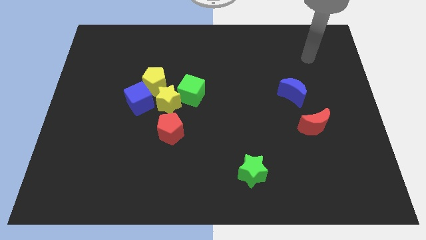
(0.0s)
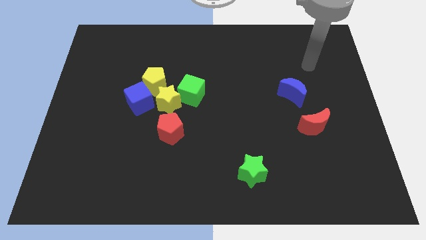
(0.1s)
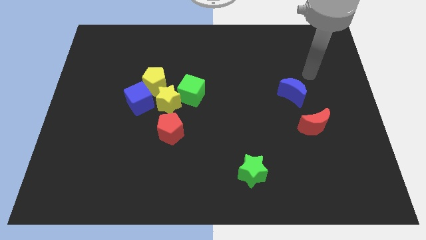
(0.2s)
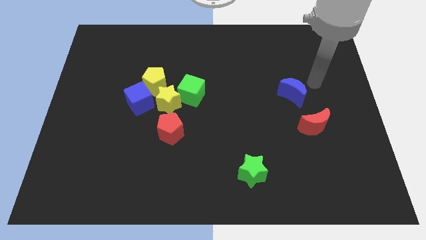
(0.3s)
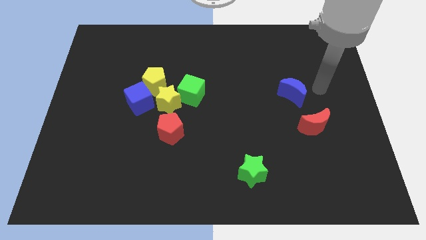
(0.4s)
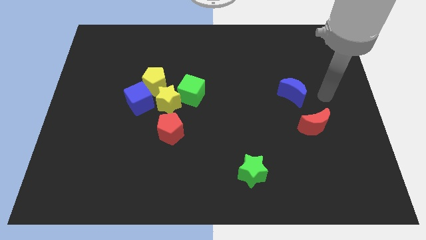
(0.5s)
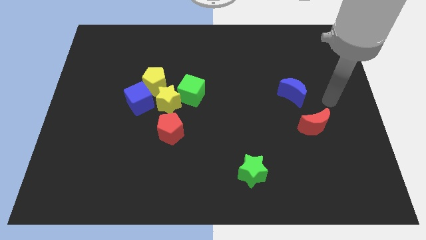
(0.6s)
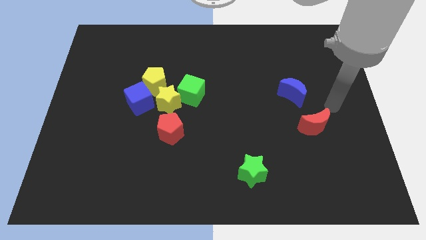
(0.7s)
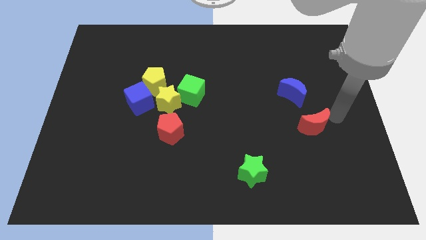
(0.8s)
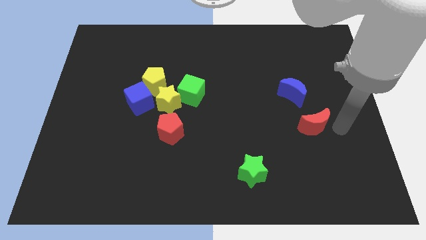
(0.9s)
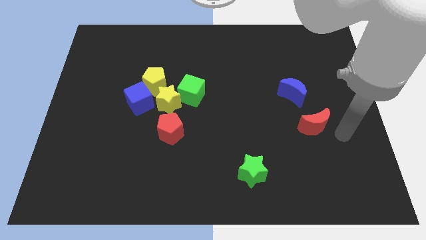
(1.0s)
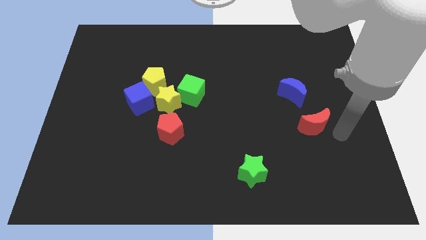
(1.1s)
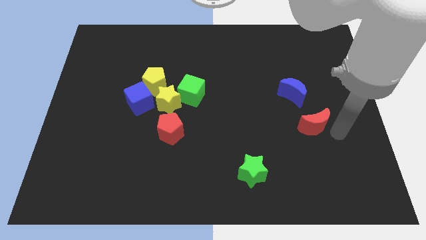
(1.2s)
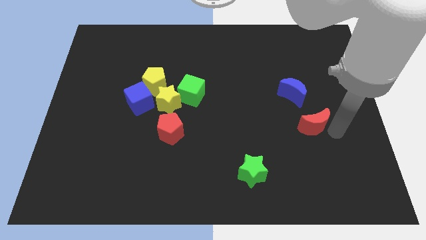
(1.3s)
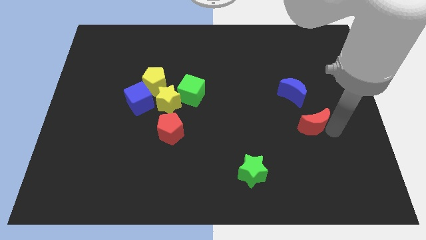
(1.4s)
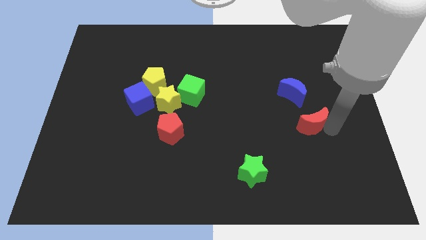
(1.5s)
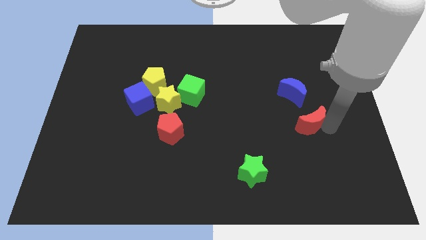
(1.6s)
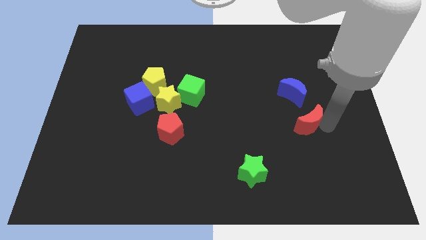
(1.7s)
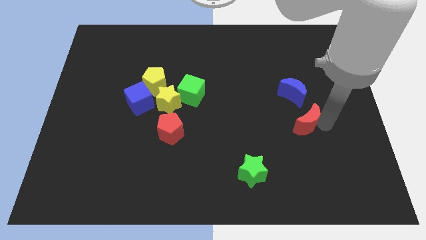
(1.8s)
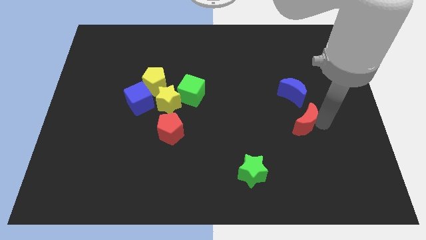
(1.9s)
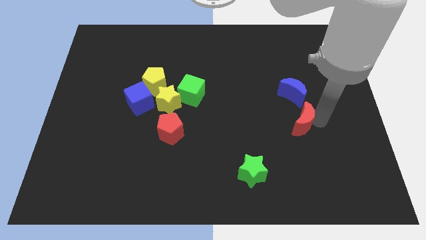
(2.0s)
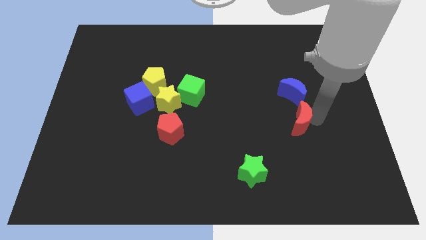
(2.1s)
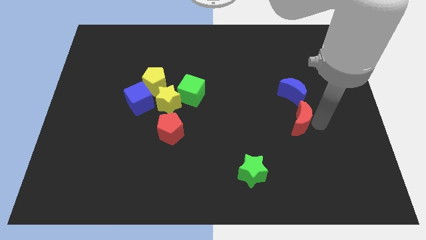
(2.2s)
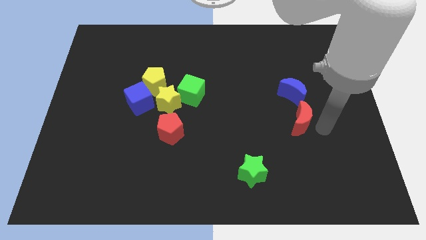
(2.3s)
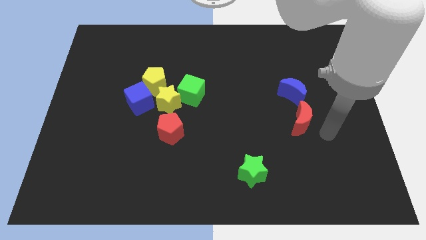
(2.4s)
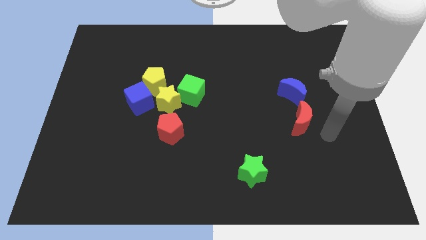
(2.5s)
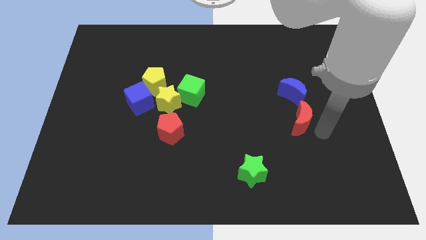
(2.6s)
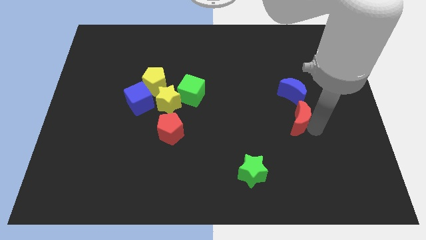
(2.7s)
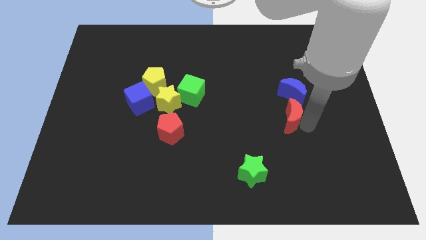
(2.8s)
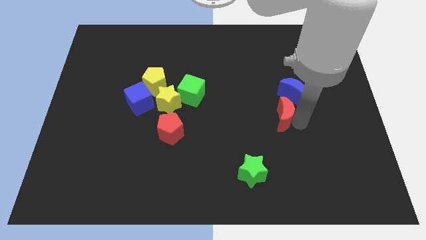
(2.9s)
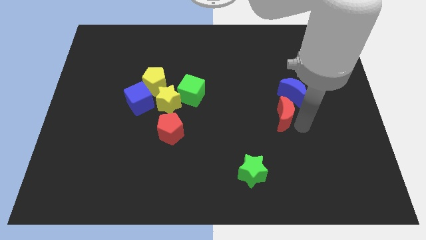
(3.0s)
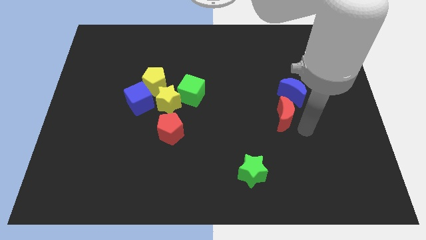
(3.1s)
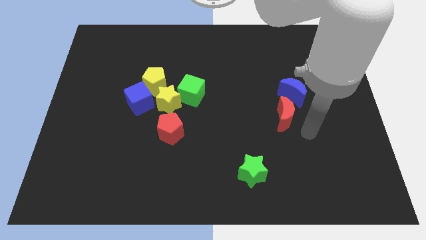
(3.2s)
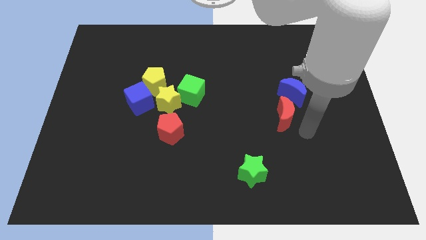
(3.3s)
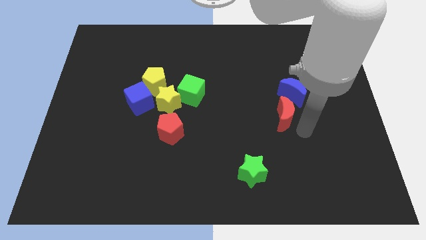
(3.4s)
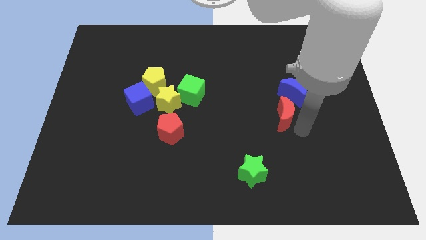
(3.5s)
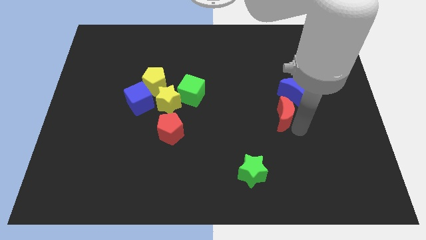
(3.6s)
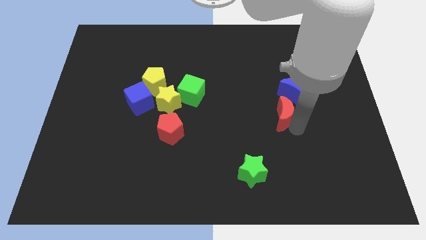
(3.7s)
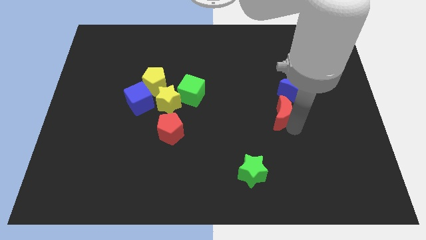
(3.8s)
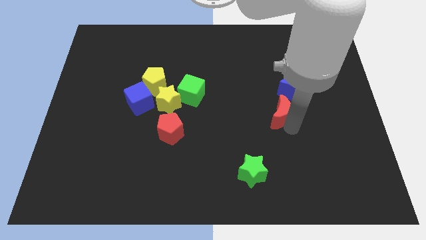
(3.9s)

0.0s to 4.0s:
slightly push the red moon upwards and then left

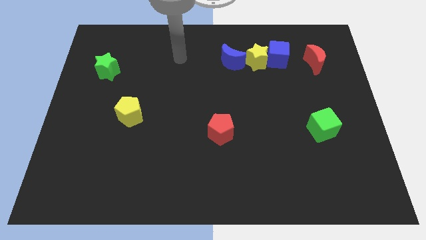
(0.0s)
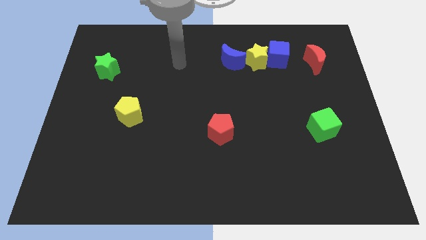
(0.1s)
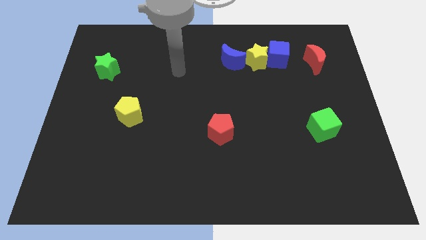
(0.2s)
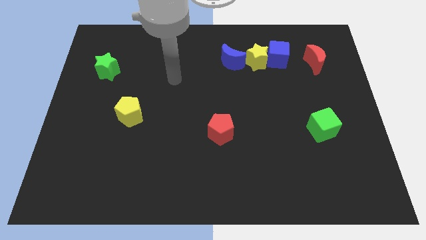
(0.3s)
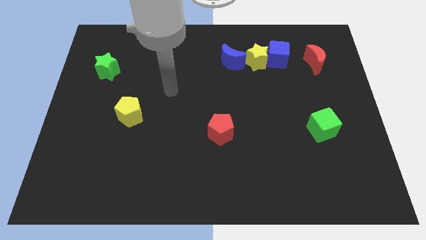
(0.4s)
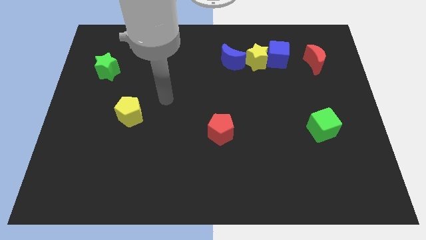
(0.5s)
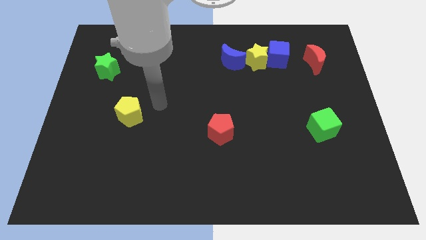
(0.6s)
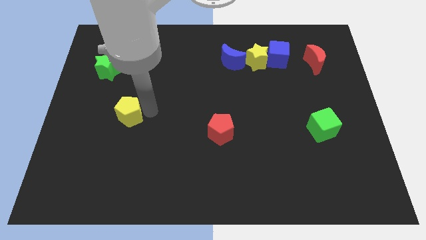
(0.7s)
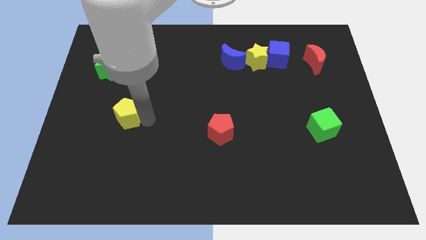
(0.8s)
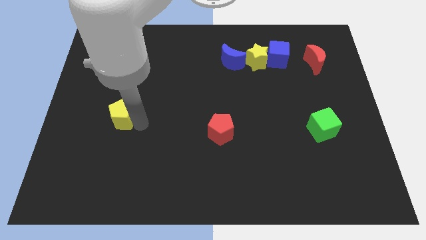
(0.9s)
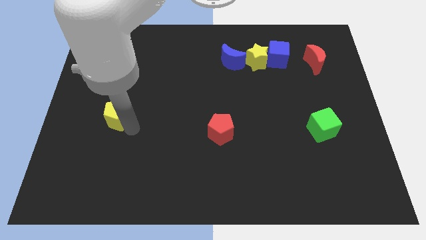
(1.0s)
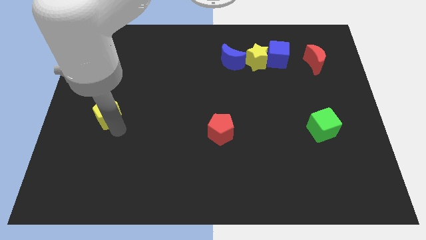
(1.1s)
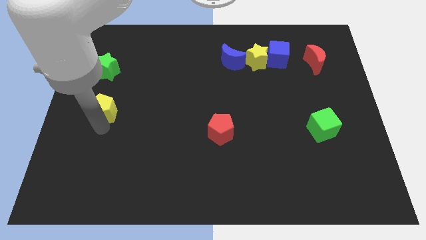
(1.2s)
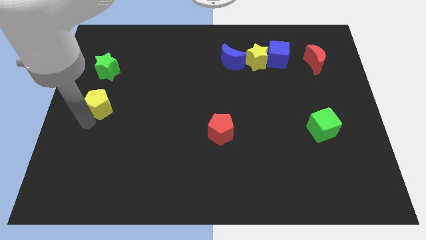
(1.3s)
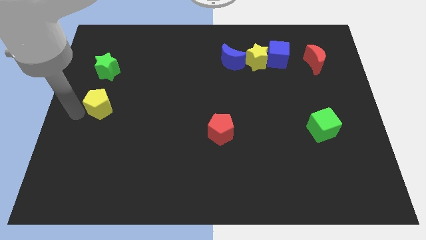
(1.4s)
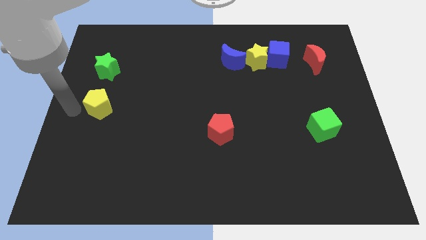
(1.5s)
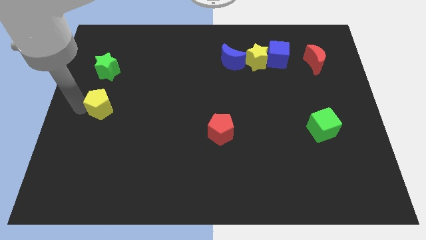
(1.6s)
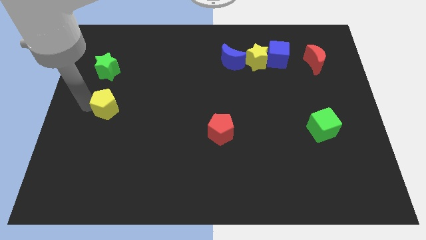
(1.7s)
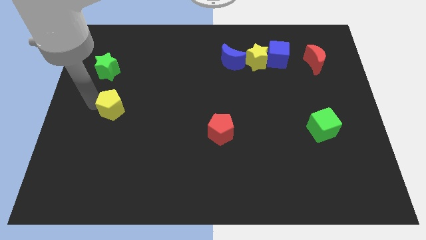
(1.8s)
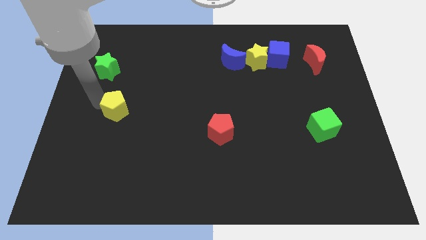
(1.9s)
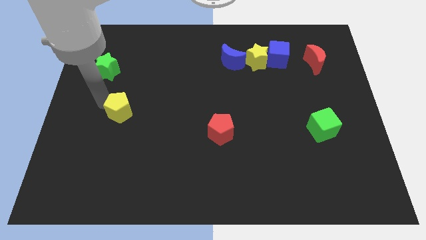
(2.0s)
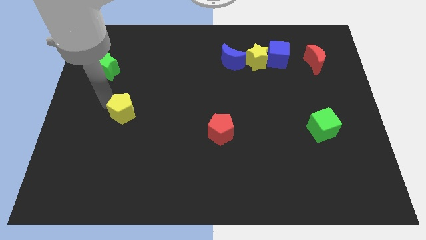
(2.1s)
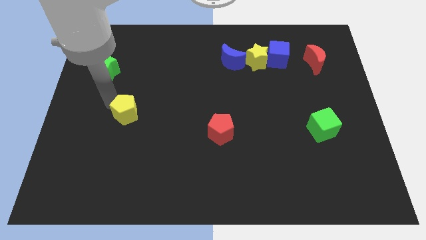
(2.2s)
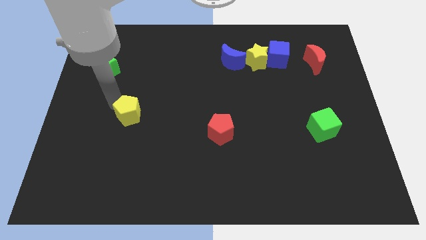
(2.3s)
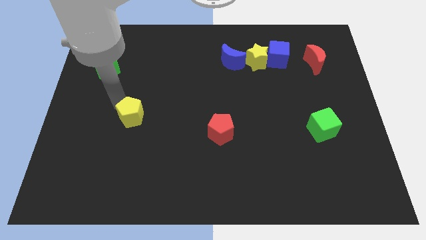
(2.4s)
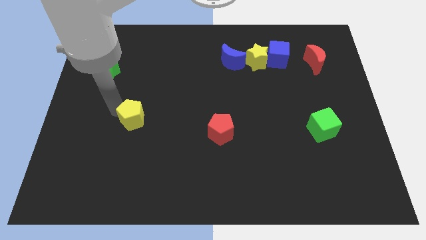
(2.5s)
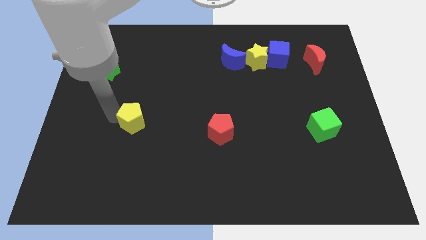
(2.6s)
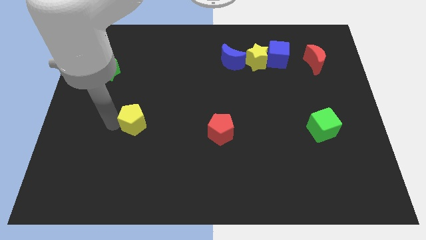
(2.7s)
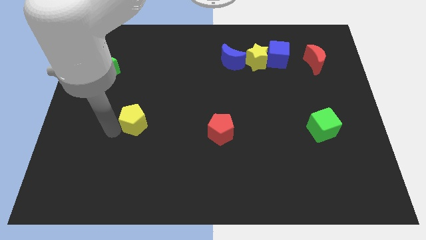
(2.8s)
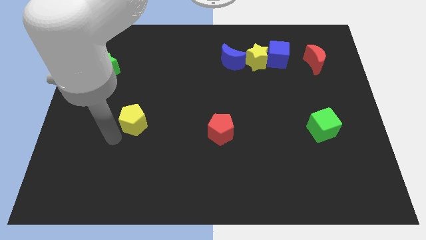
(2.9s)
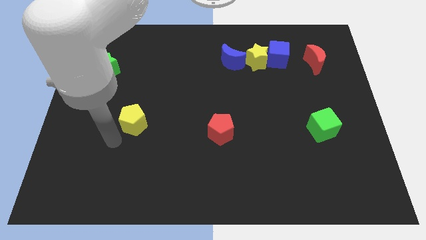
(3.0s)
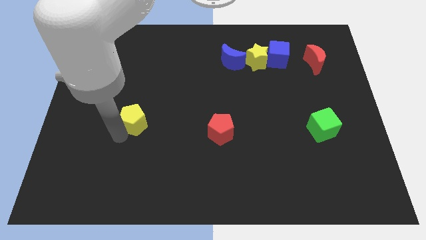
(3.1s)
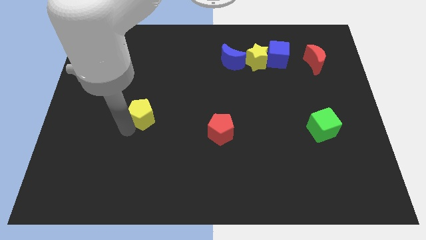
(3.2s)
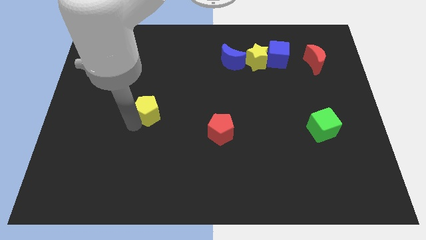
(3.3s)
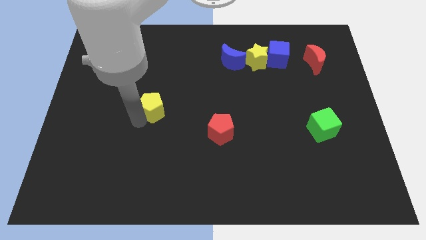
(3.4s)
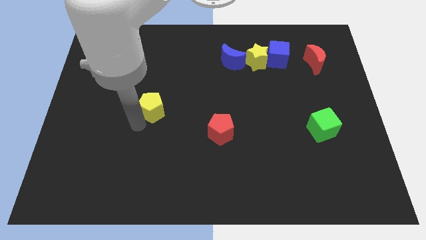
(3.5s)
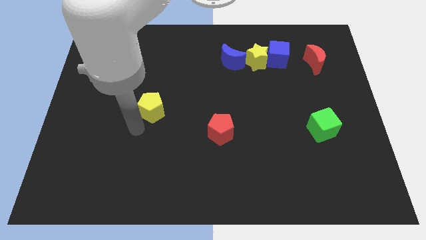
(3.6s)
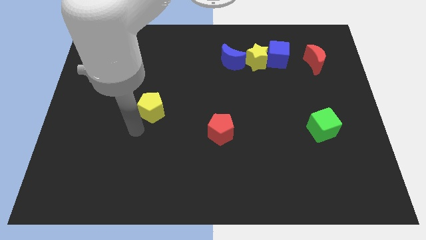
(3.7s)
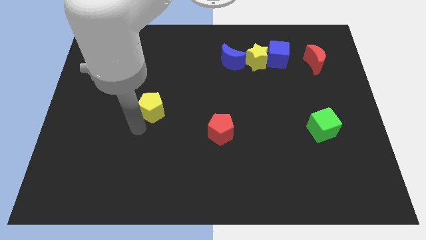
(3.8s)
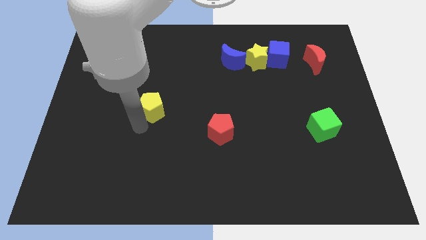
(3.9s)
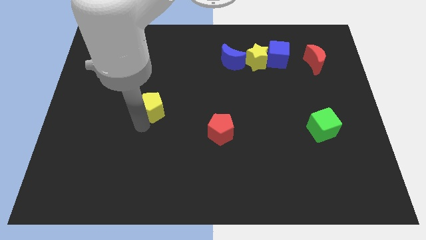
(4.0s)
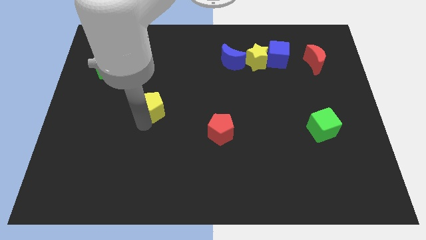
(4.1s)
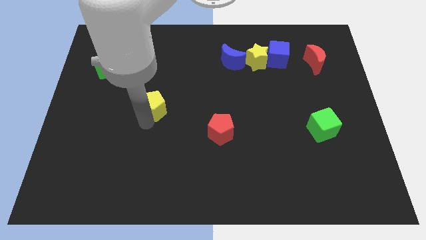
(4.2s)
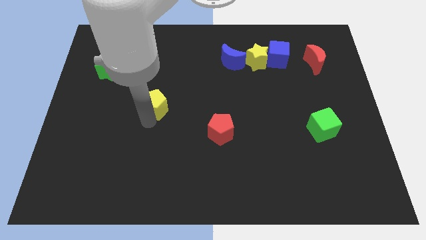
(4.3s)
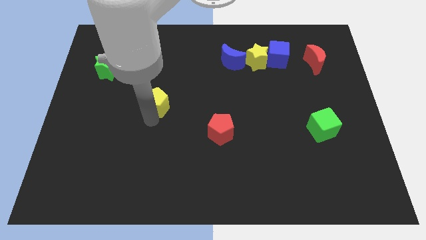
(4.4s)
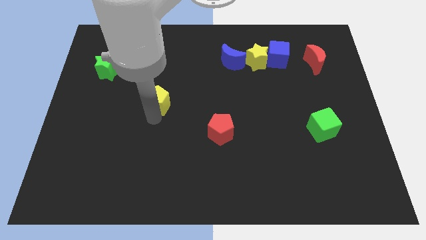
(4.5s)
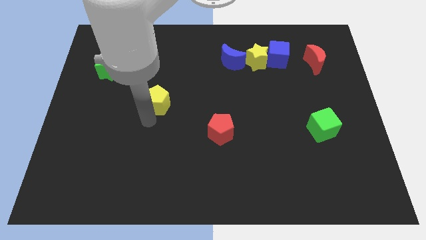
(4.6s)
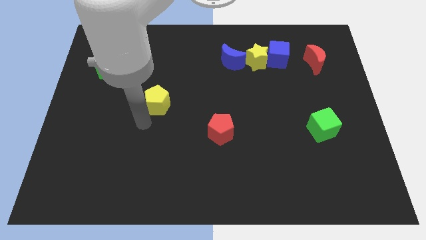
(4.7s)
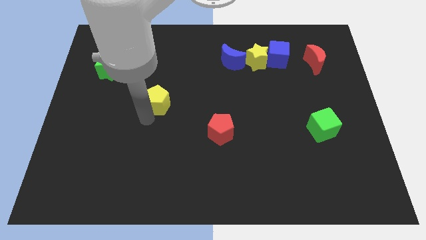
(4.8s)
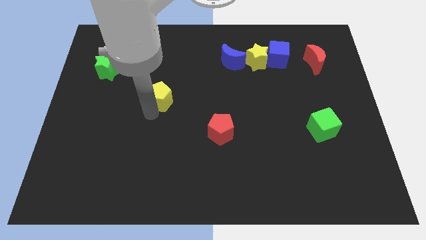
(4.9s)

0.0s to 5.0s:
slide the yellow pentagon a little diagonally up and to the right
